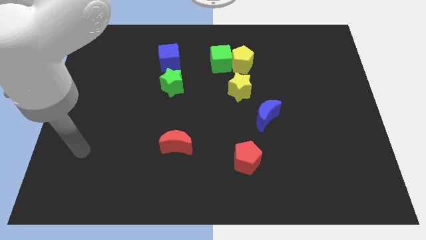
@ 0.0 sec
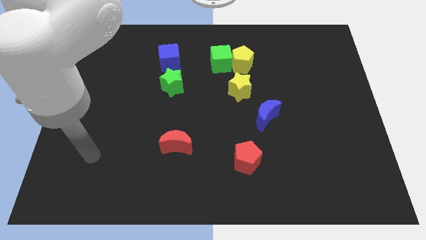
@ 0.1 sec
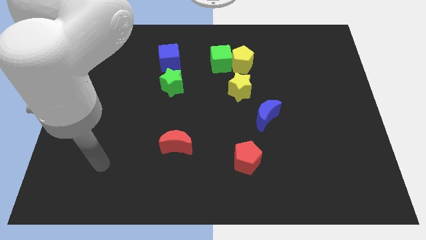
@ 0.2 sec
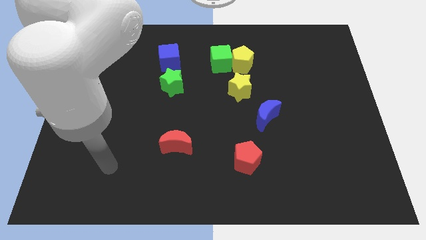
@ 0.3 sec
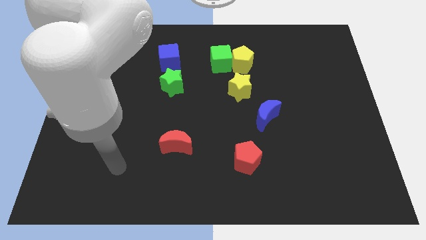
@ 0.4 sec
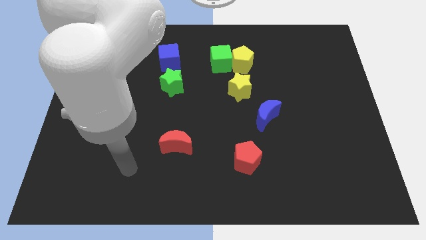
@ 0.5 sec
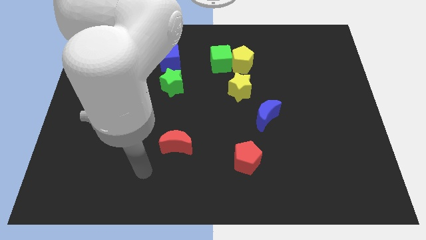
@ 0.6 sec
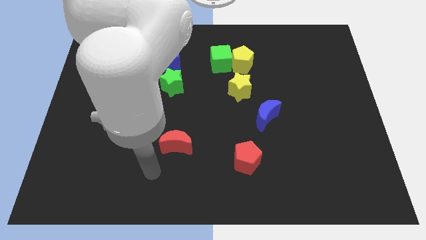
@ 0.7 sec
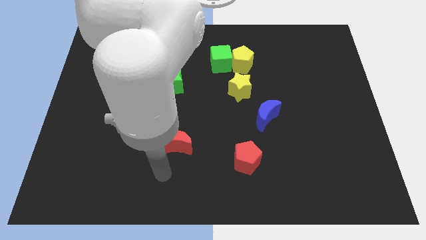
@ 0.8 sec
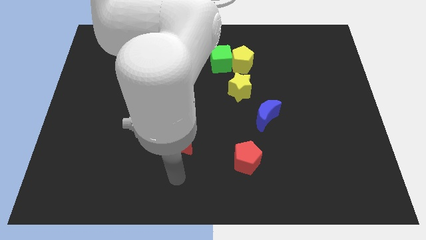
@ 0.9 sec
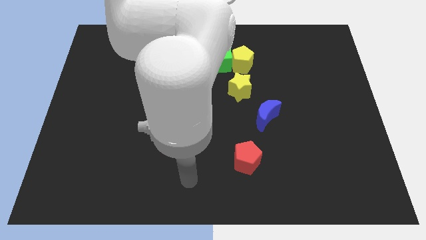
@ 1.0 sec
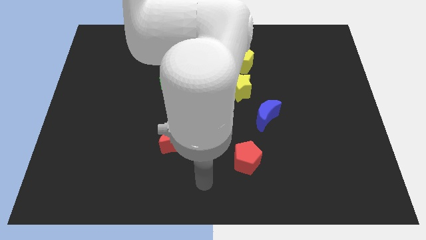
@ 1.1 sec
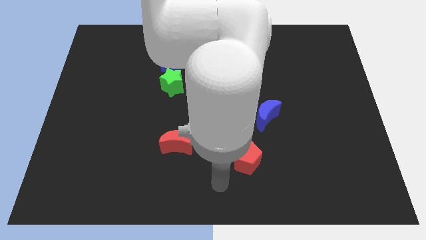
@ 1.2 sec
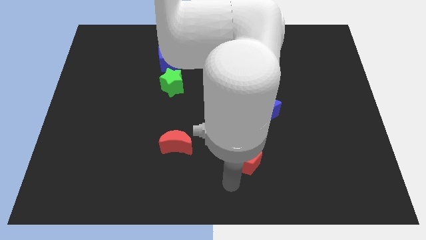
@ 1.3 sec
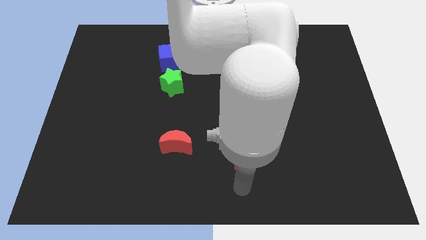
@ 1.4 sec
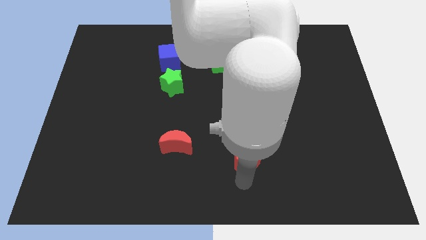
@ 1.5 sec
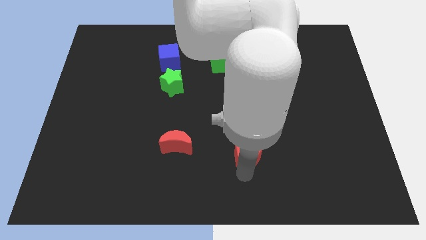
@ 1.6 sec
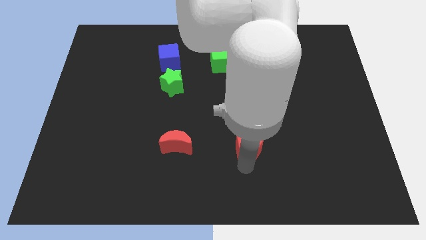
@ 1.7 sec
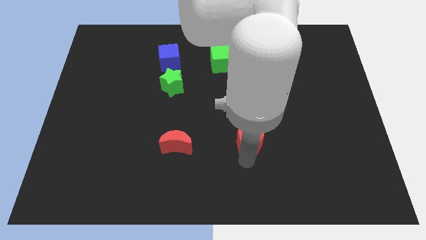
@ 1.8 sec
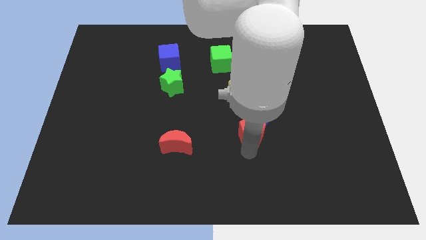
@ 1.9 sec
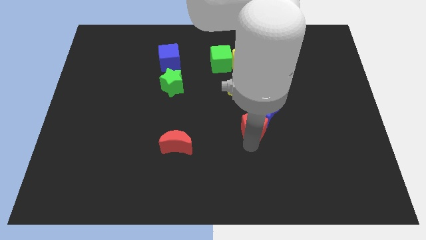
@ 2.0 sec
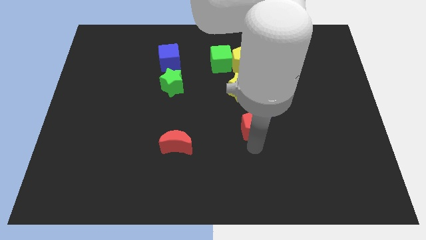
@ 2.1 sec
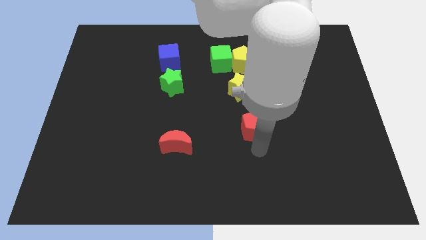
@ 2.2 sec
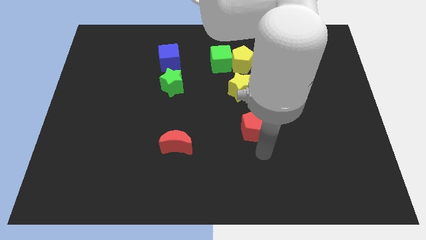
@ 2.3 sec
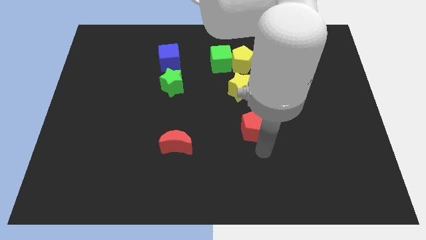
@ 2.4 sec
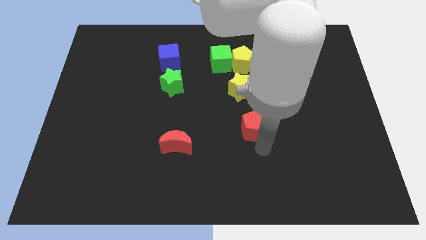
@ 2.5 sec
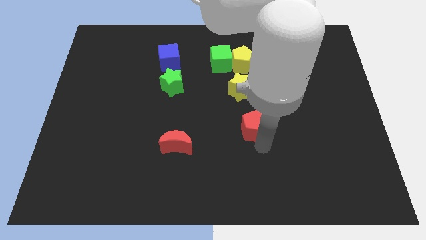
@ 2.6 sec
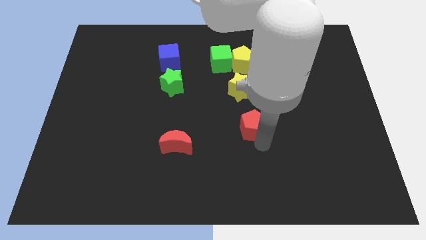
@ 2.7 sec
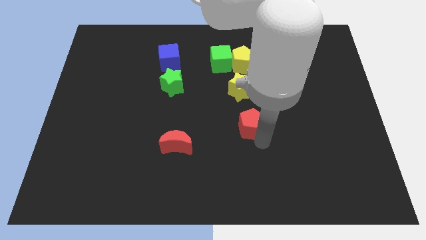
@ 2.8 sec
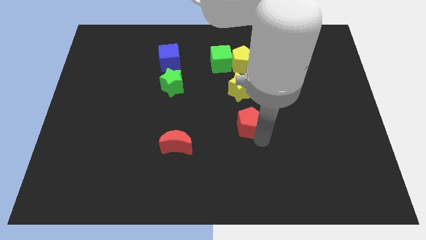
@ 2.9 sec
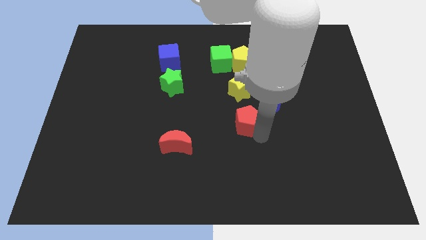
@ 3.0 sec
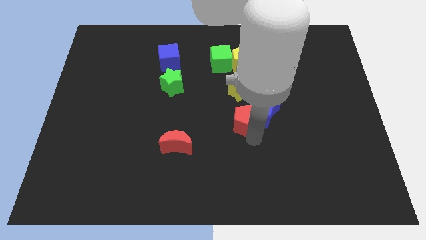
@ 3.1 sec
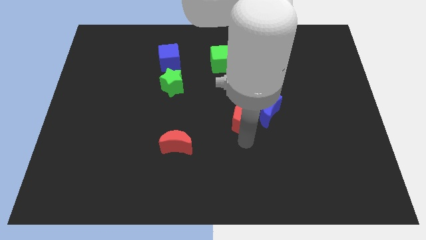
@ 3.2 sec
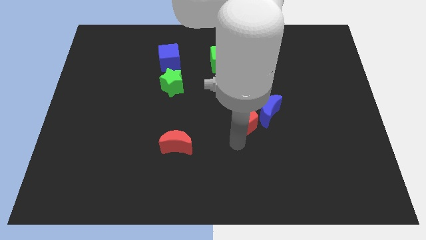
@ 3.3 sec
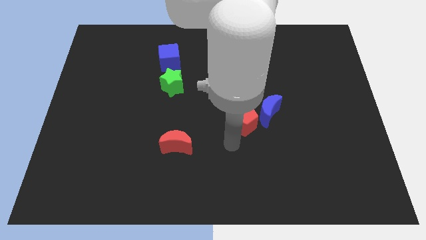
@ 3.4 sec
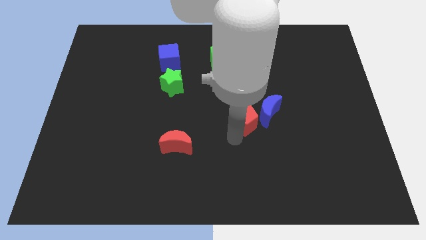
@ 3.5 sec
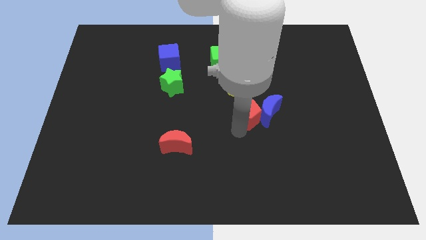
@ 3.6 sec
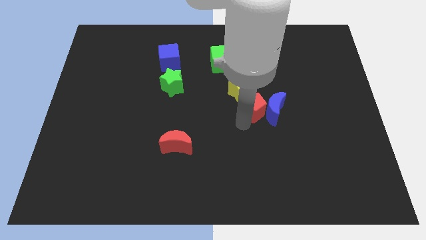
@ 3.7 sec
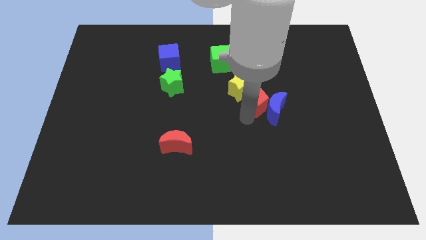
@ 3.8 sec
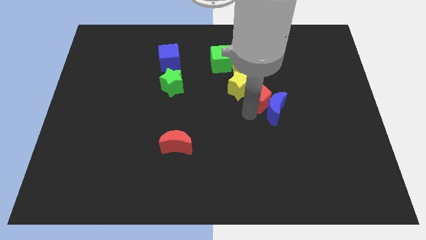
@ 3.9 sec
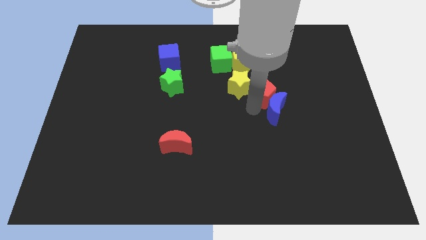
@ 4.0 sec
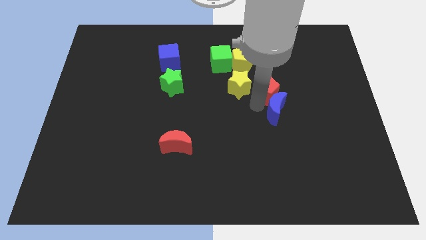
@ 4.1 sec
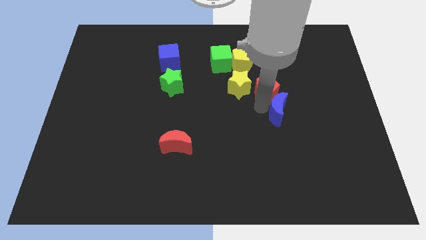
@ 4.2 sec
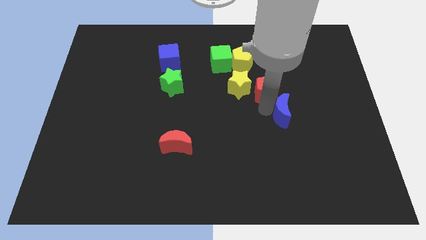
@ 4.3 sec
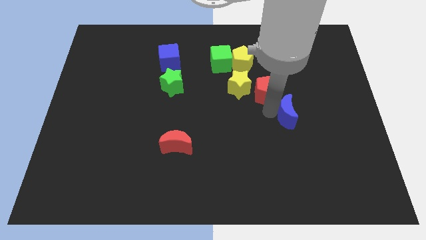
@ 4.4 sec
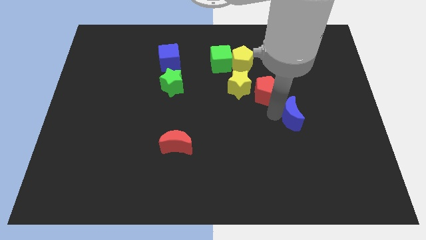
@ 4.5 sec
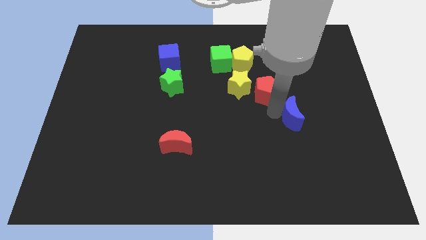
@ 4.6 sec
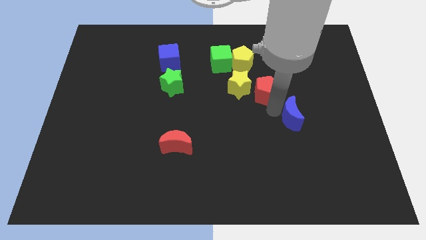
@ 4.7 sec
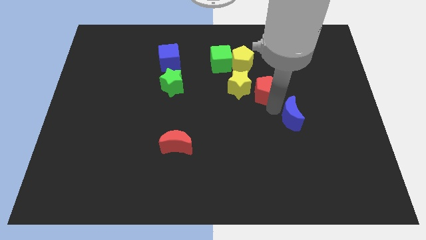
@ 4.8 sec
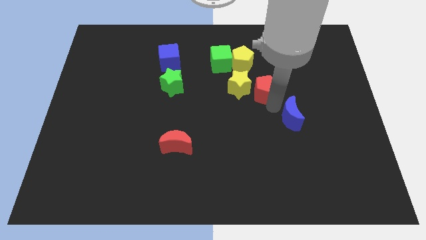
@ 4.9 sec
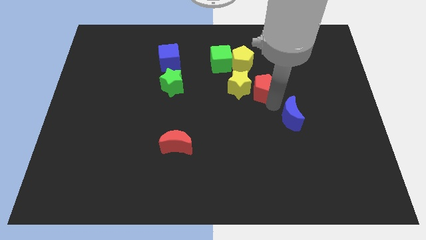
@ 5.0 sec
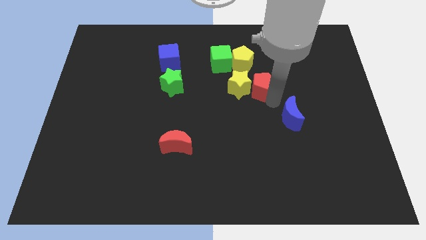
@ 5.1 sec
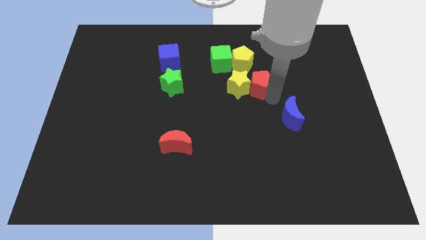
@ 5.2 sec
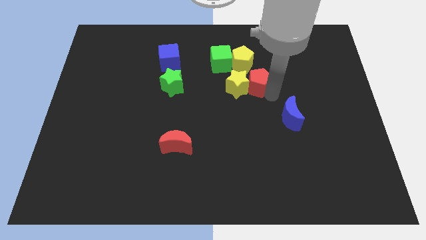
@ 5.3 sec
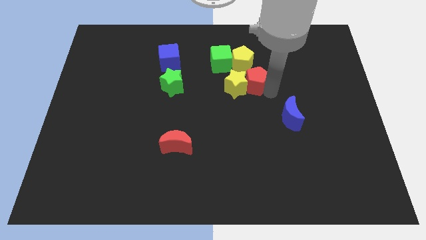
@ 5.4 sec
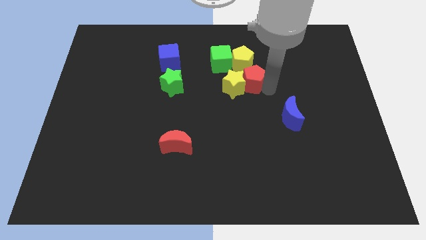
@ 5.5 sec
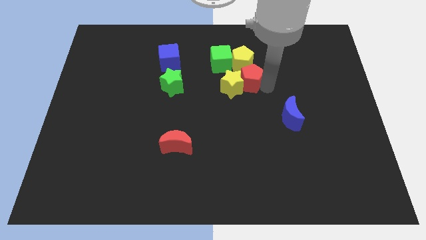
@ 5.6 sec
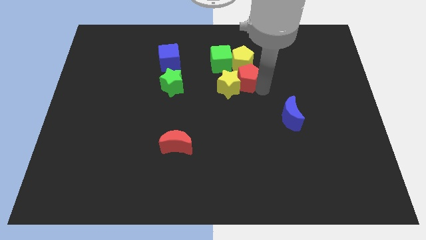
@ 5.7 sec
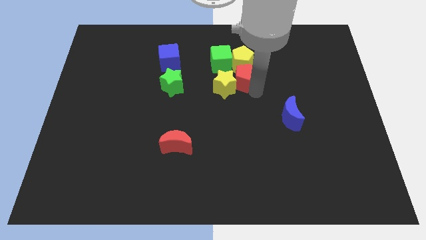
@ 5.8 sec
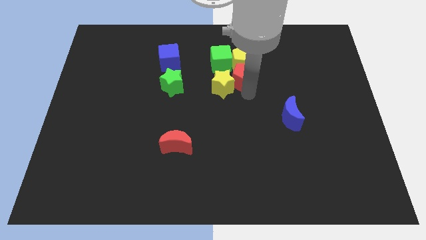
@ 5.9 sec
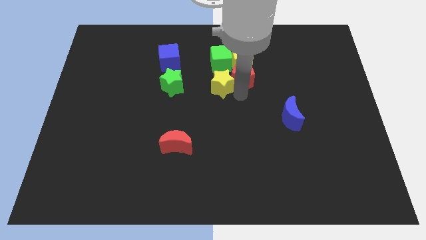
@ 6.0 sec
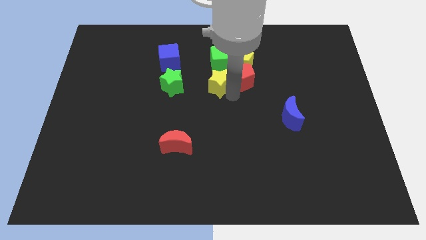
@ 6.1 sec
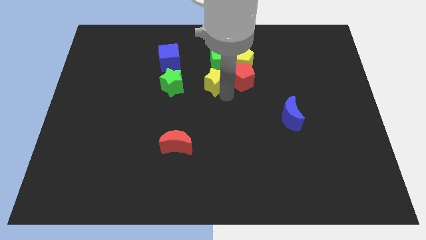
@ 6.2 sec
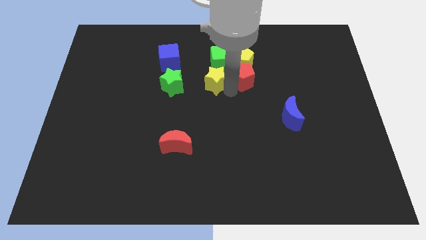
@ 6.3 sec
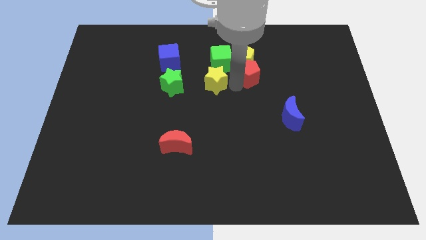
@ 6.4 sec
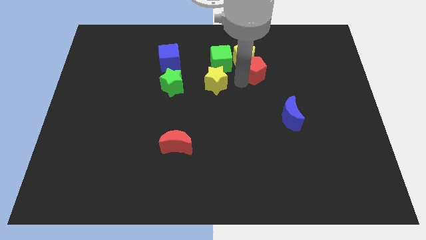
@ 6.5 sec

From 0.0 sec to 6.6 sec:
push the red pentagon right of the green cube

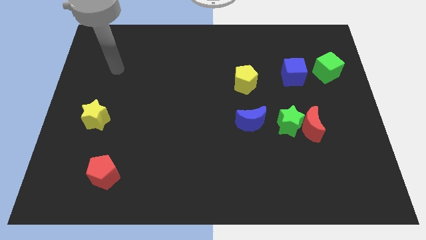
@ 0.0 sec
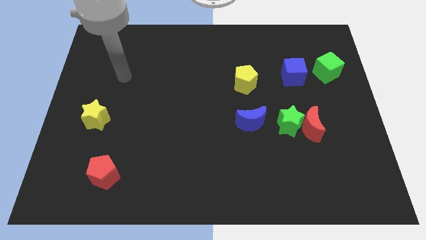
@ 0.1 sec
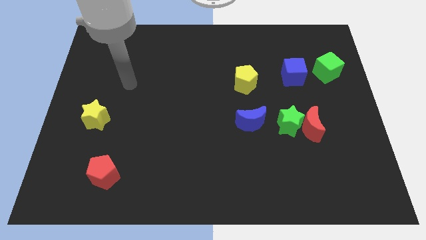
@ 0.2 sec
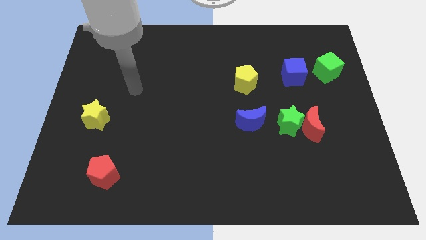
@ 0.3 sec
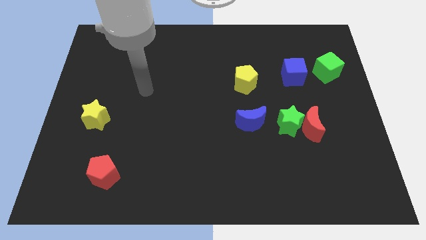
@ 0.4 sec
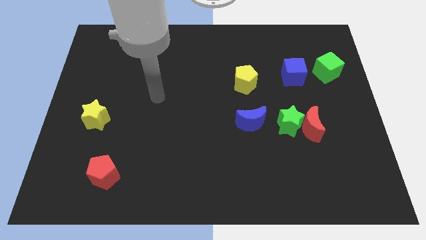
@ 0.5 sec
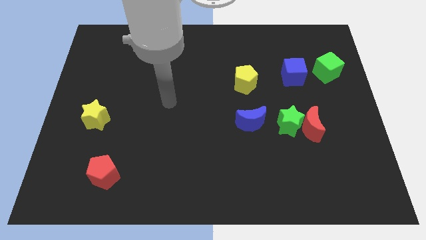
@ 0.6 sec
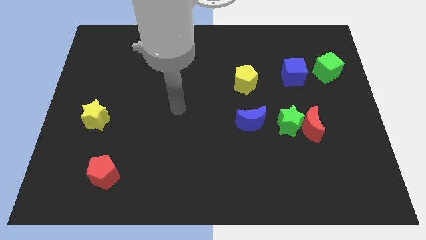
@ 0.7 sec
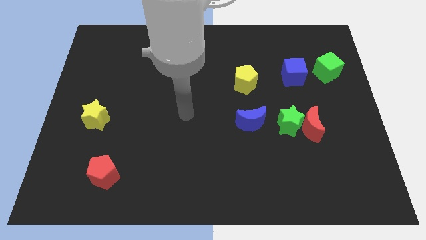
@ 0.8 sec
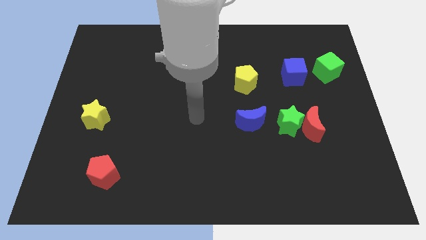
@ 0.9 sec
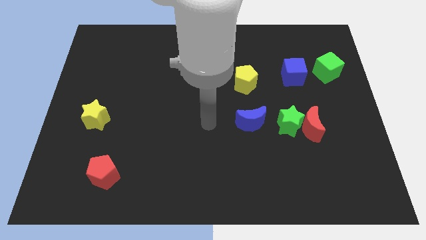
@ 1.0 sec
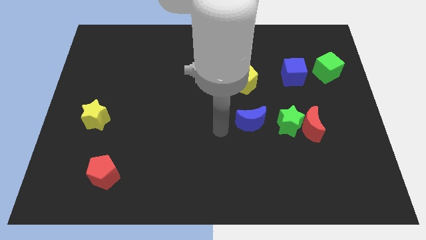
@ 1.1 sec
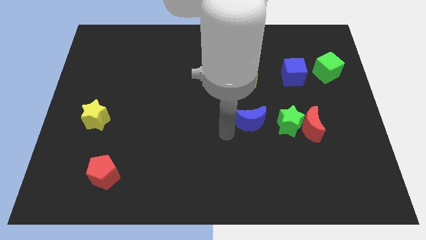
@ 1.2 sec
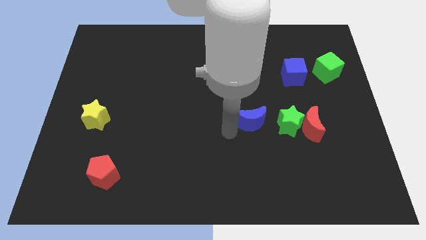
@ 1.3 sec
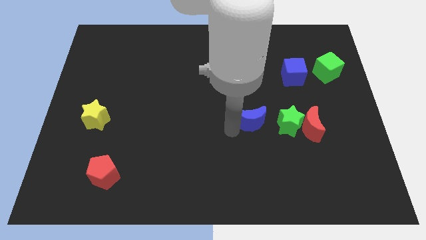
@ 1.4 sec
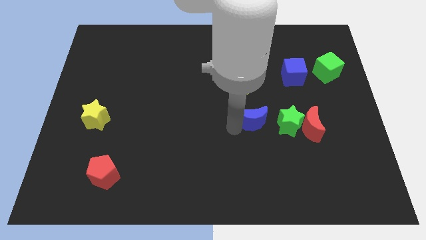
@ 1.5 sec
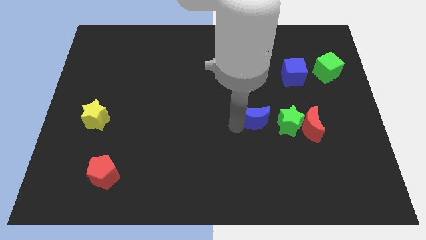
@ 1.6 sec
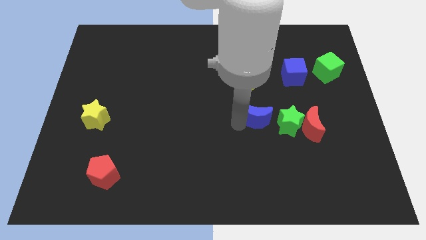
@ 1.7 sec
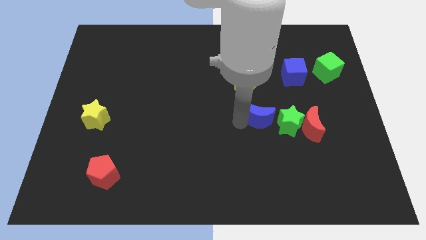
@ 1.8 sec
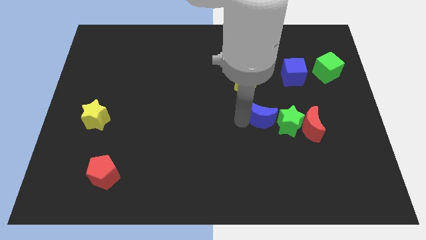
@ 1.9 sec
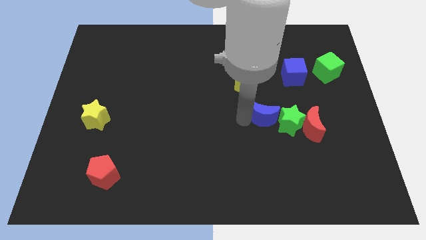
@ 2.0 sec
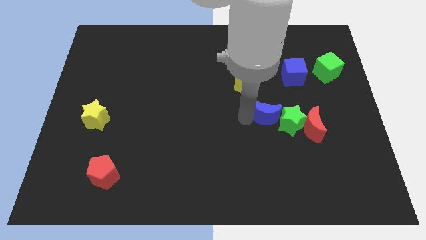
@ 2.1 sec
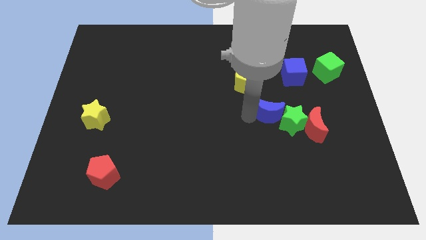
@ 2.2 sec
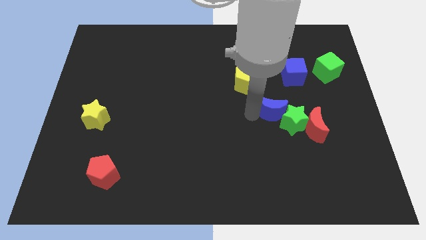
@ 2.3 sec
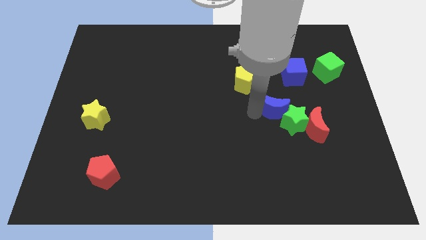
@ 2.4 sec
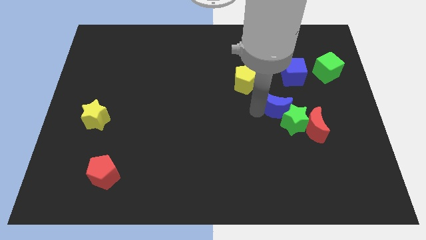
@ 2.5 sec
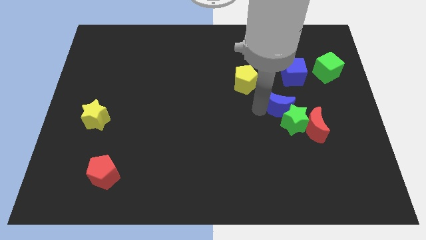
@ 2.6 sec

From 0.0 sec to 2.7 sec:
put the blue moon below the blue cube
